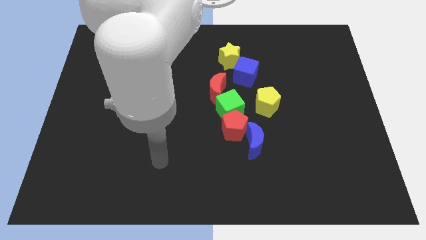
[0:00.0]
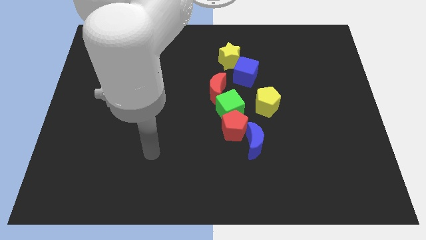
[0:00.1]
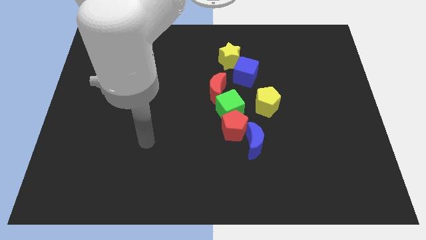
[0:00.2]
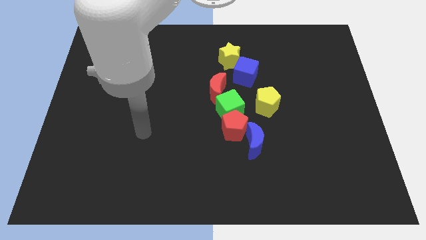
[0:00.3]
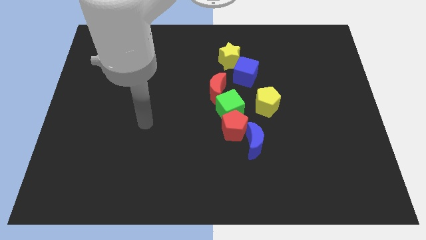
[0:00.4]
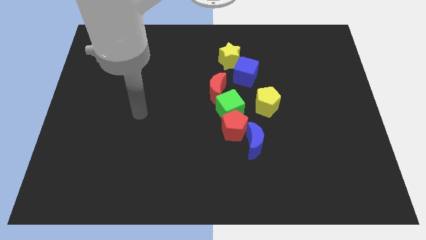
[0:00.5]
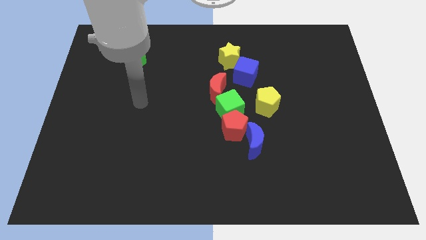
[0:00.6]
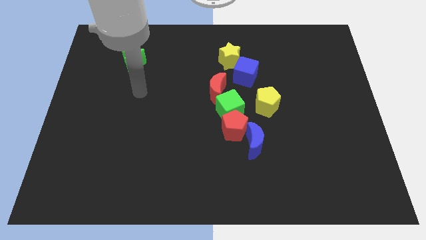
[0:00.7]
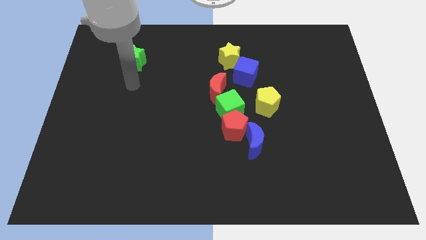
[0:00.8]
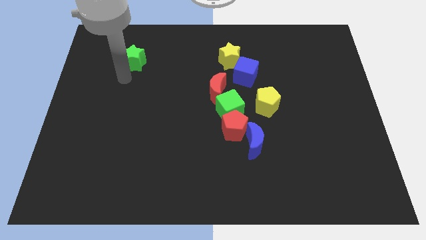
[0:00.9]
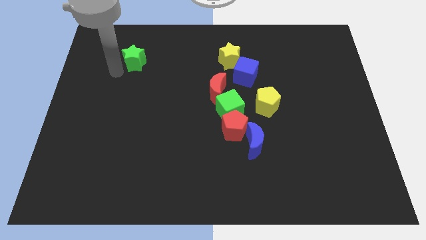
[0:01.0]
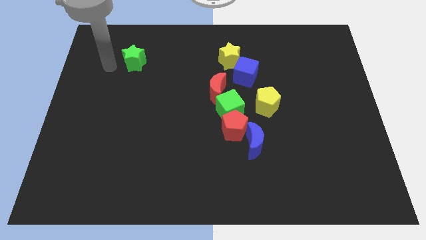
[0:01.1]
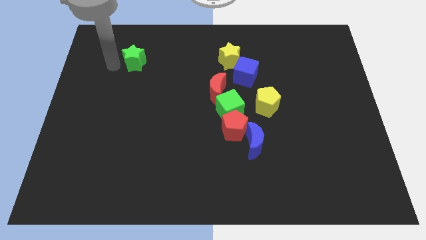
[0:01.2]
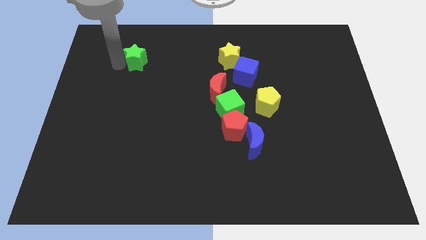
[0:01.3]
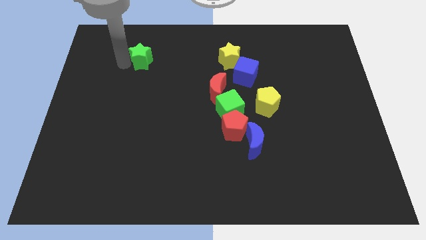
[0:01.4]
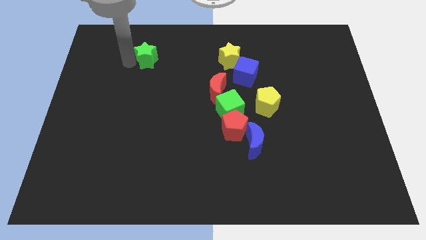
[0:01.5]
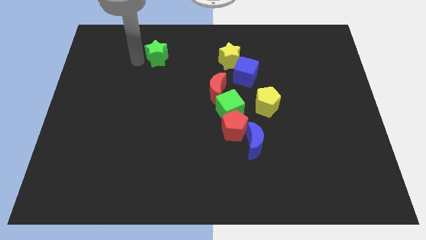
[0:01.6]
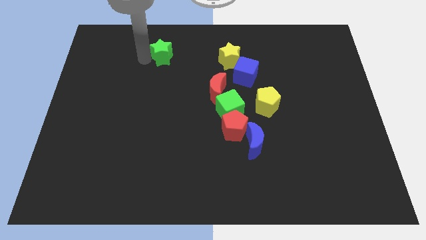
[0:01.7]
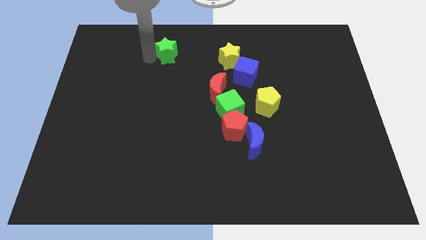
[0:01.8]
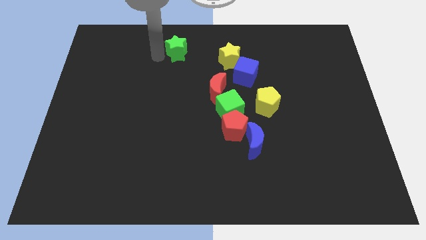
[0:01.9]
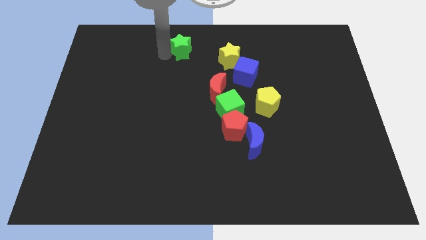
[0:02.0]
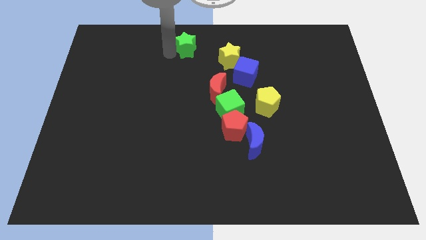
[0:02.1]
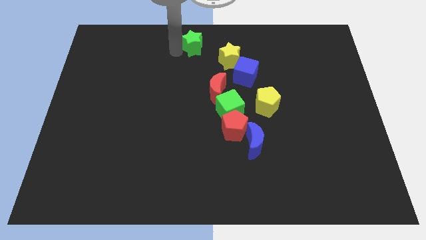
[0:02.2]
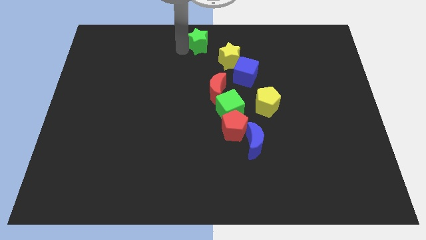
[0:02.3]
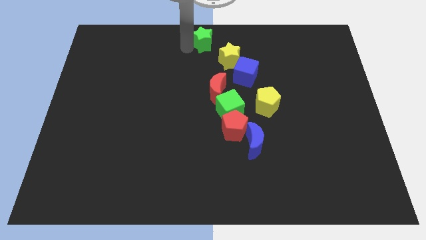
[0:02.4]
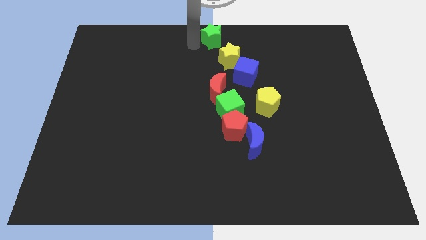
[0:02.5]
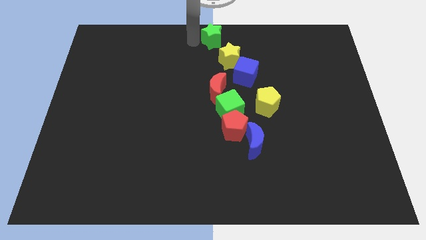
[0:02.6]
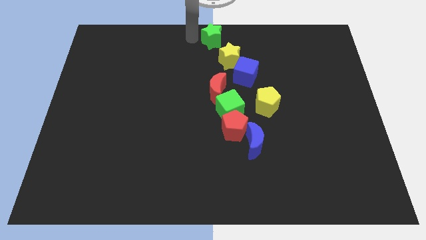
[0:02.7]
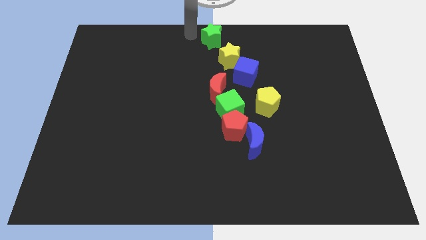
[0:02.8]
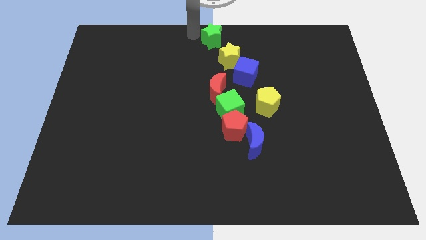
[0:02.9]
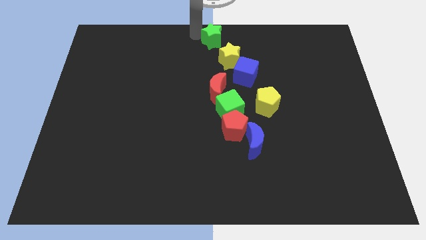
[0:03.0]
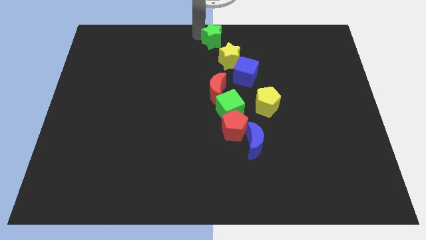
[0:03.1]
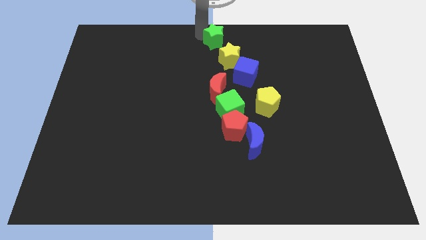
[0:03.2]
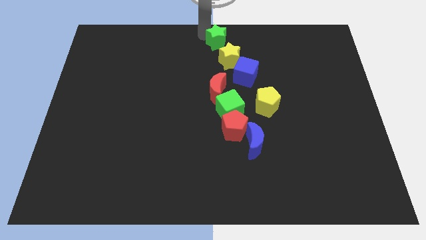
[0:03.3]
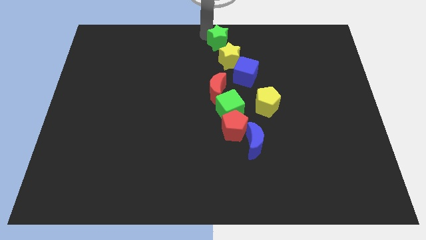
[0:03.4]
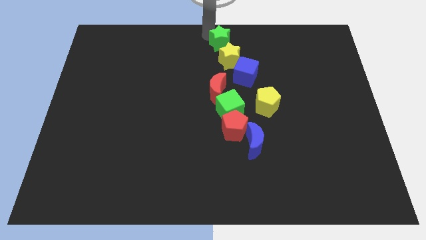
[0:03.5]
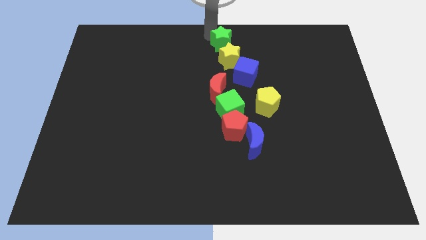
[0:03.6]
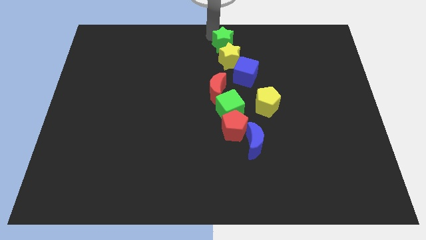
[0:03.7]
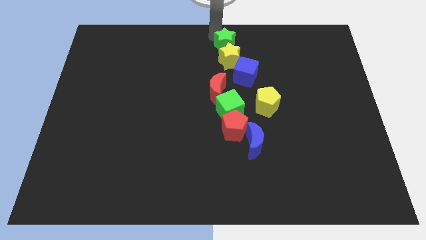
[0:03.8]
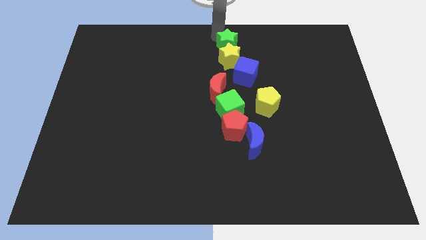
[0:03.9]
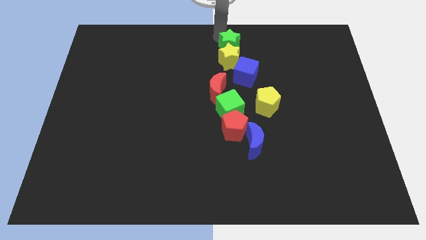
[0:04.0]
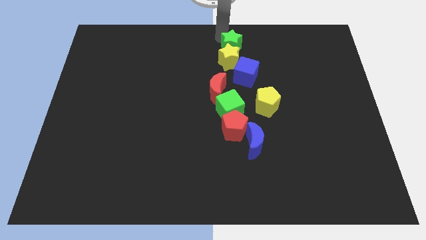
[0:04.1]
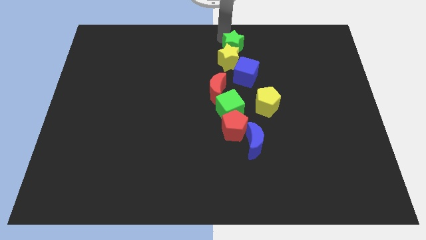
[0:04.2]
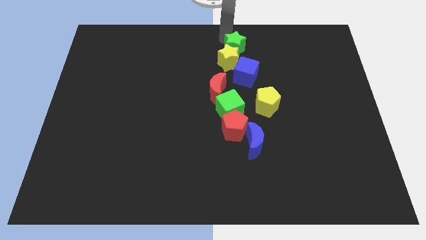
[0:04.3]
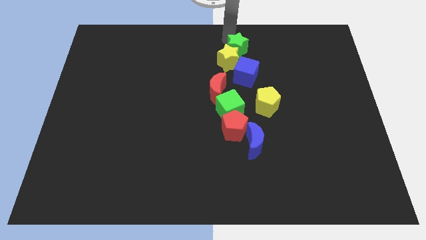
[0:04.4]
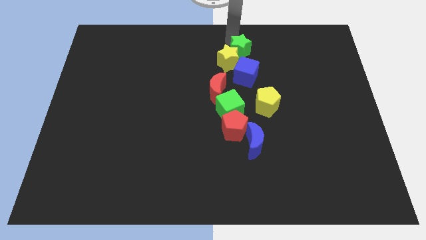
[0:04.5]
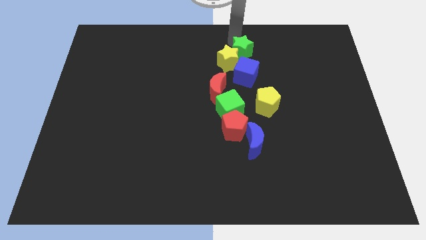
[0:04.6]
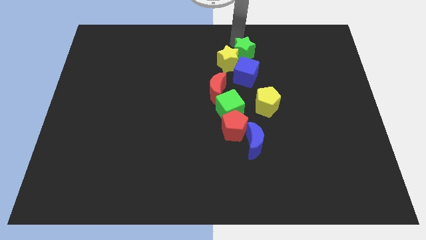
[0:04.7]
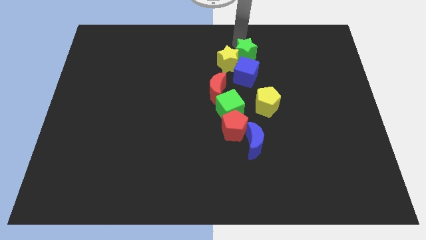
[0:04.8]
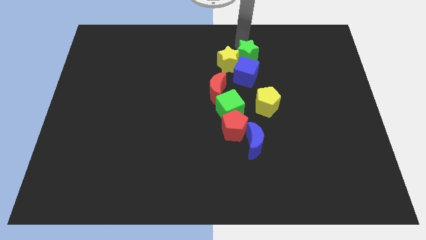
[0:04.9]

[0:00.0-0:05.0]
slide the green star to the top right side of the blue cube

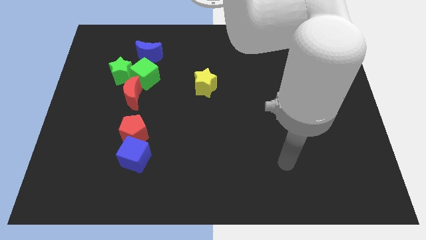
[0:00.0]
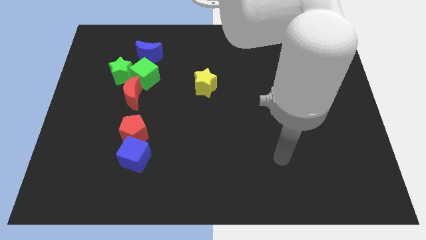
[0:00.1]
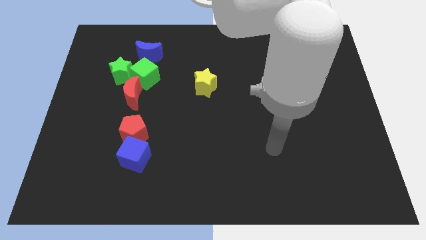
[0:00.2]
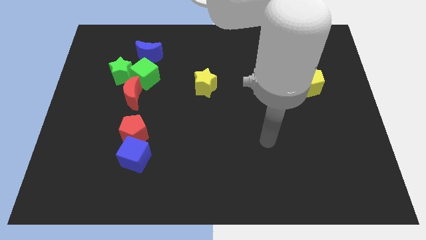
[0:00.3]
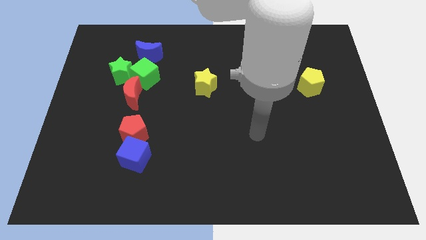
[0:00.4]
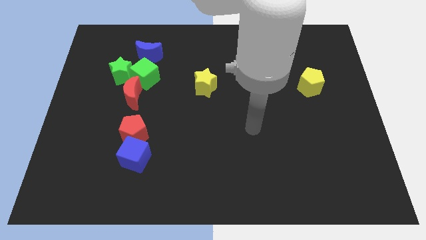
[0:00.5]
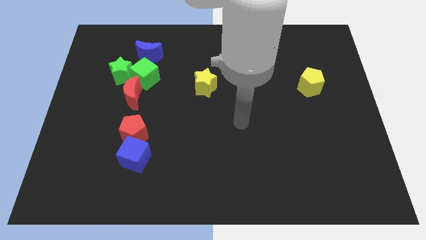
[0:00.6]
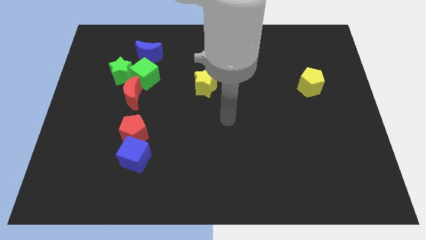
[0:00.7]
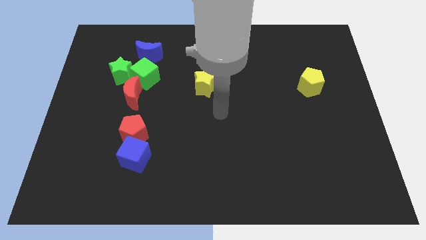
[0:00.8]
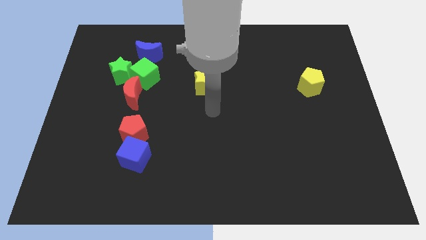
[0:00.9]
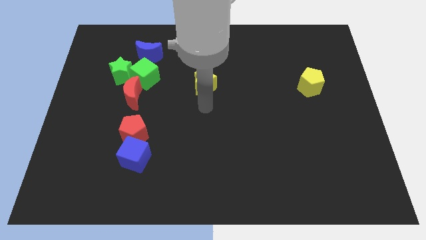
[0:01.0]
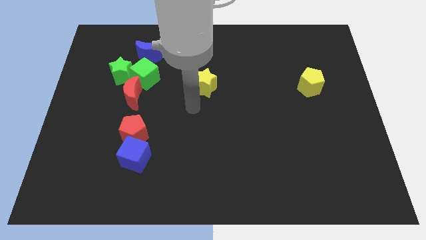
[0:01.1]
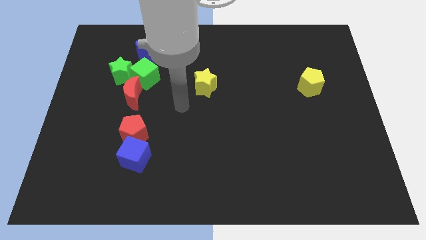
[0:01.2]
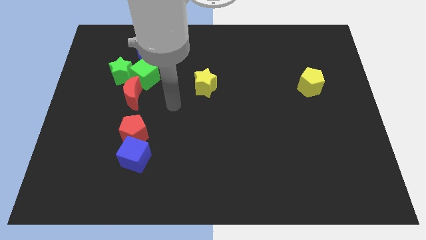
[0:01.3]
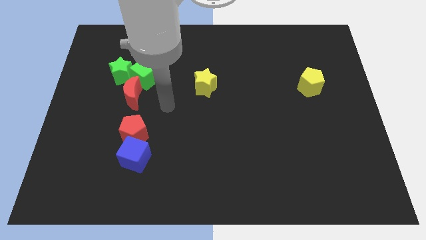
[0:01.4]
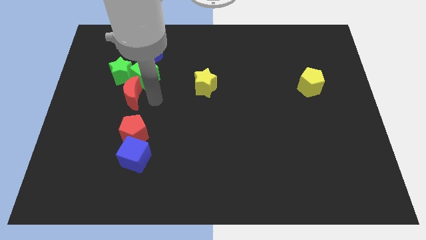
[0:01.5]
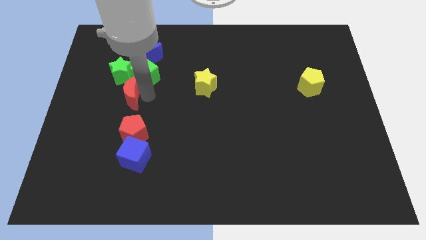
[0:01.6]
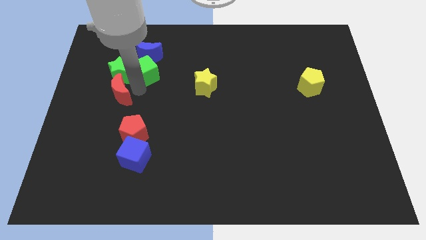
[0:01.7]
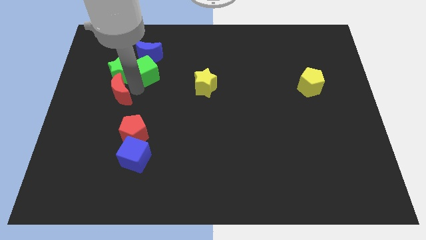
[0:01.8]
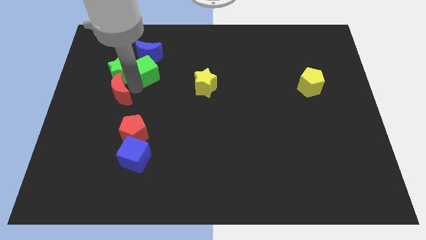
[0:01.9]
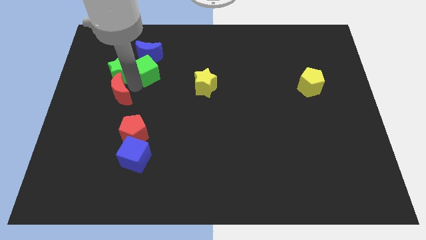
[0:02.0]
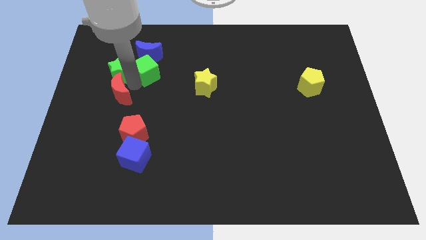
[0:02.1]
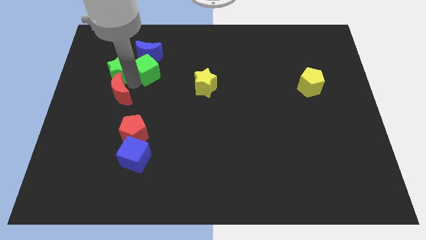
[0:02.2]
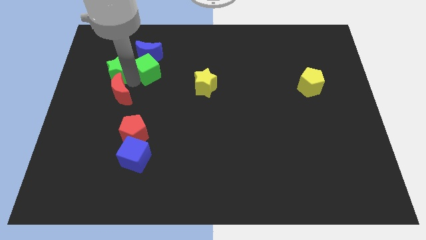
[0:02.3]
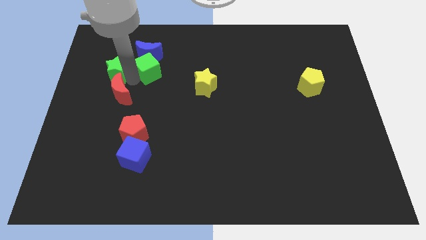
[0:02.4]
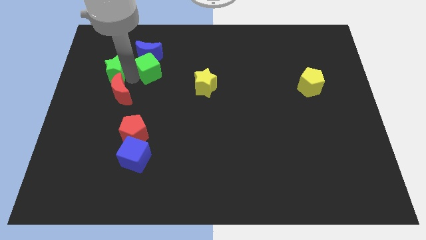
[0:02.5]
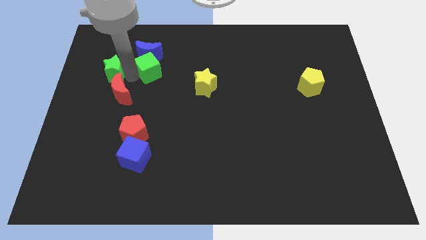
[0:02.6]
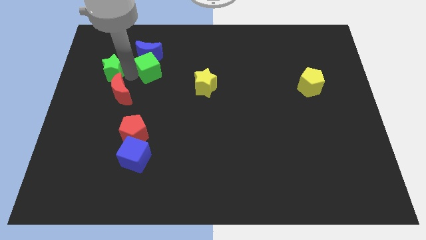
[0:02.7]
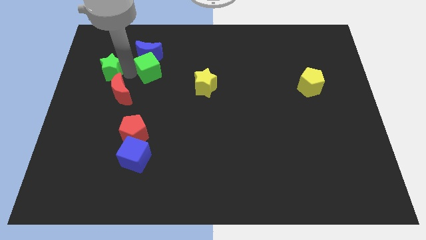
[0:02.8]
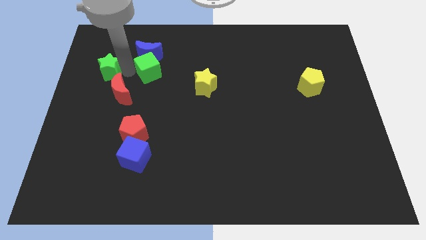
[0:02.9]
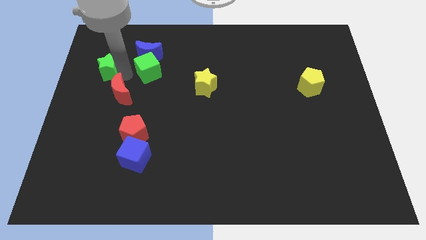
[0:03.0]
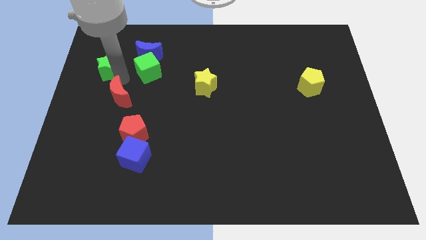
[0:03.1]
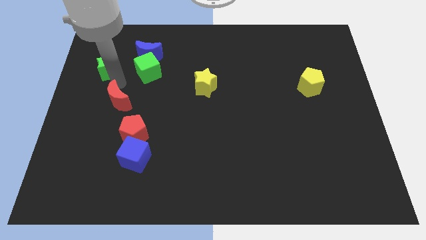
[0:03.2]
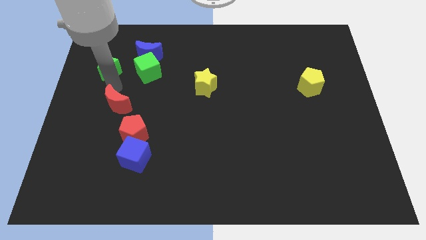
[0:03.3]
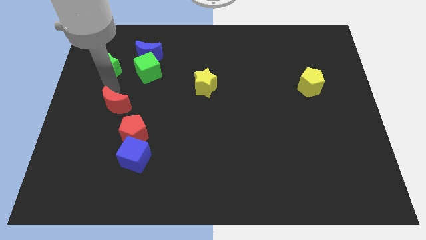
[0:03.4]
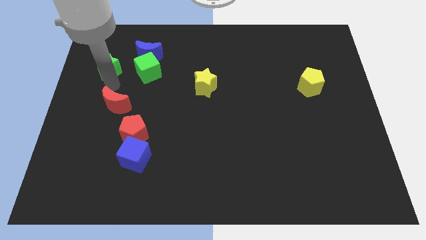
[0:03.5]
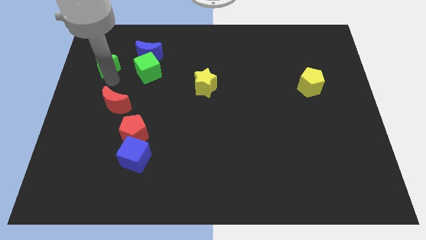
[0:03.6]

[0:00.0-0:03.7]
push the green star to the left side of the blue moon
